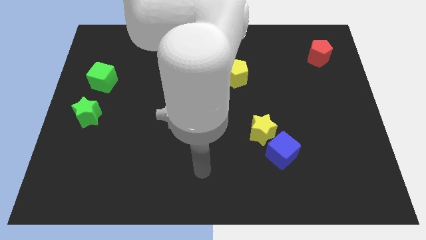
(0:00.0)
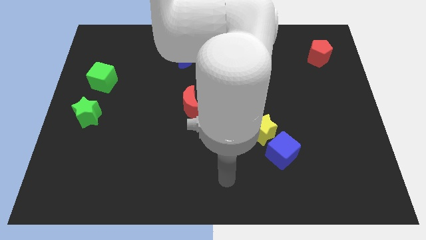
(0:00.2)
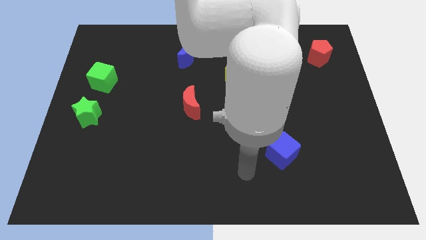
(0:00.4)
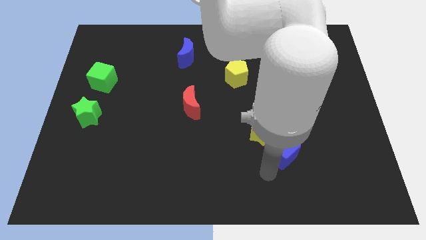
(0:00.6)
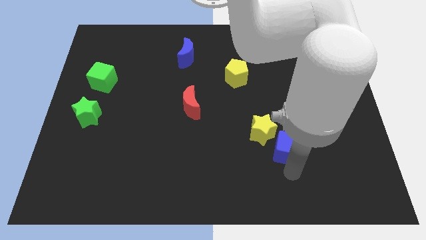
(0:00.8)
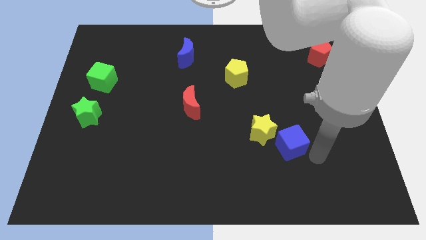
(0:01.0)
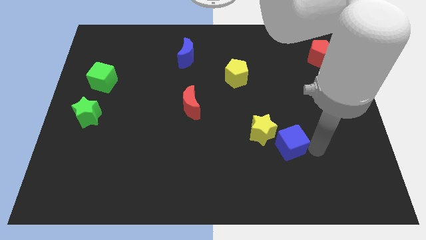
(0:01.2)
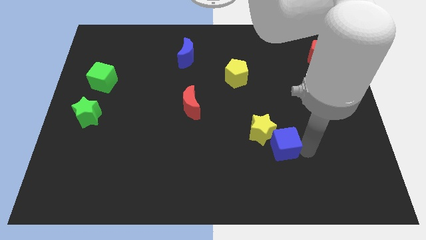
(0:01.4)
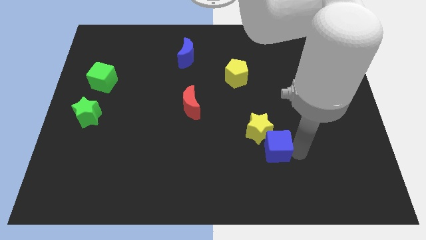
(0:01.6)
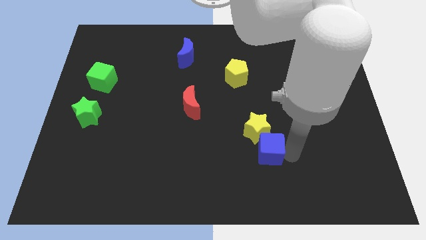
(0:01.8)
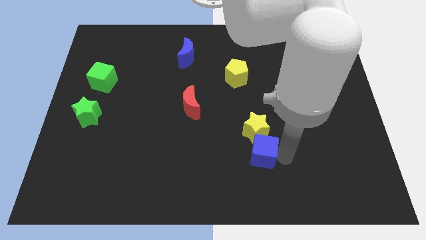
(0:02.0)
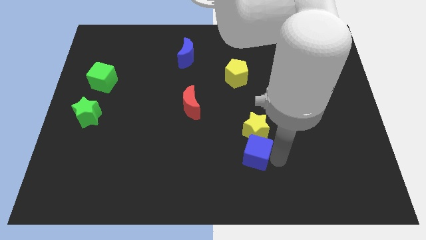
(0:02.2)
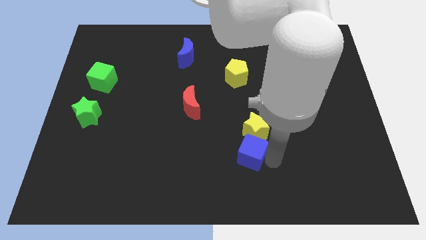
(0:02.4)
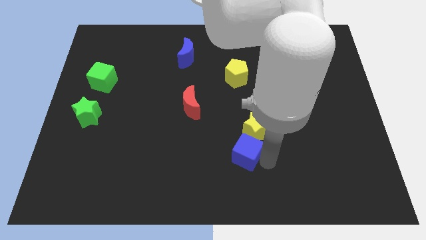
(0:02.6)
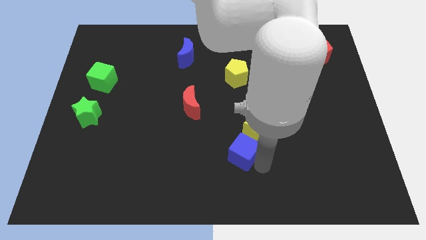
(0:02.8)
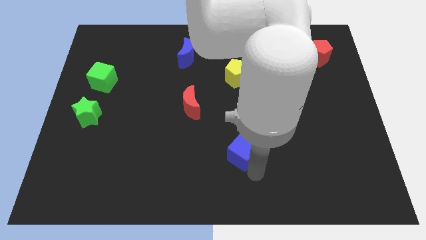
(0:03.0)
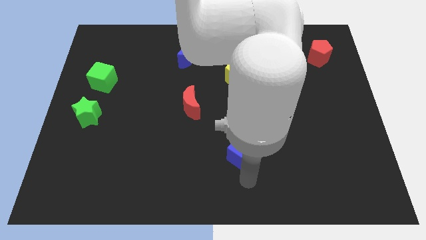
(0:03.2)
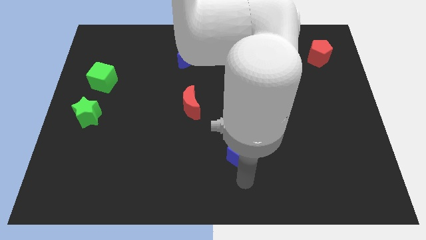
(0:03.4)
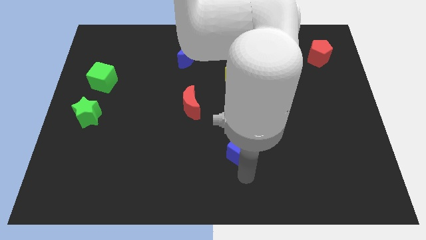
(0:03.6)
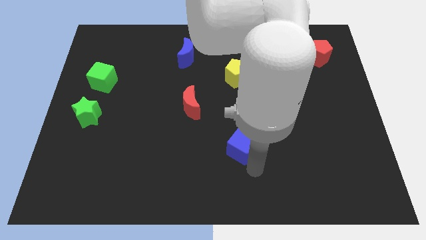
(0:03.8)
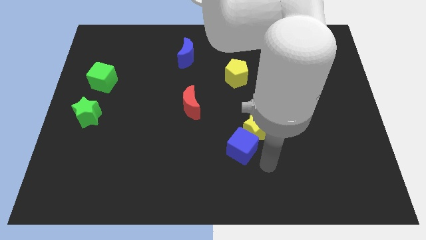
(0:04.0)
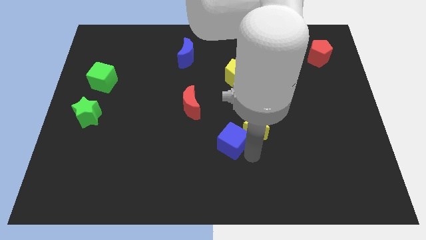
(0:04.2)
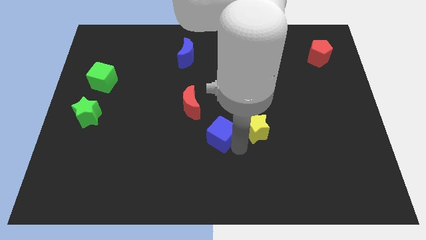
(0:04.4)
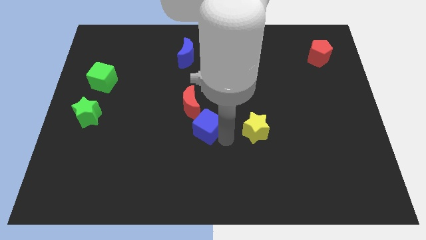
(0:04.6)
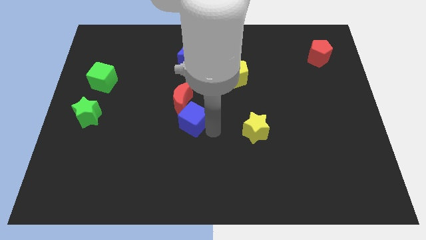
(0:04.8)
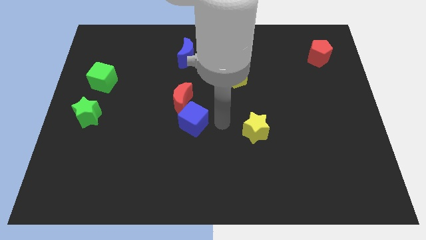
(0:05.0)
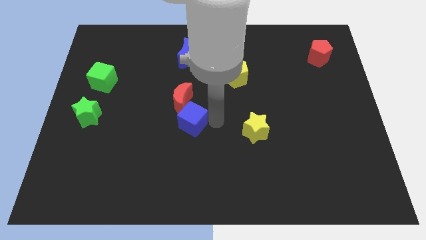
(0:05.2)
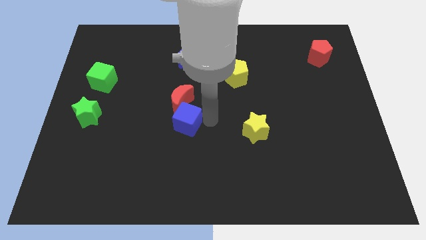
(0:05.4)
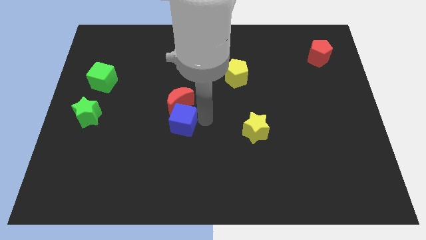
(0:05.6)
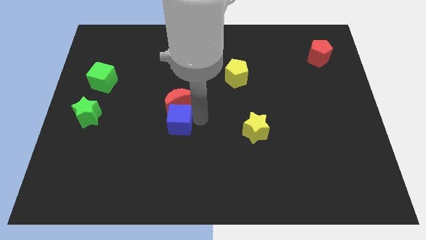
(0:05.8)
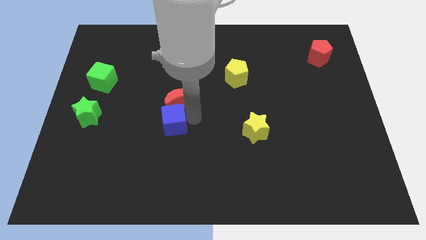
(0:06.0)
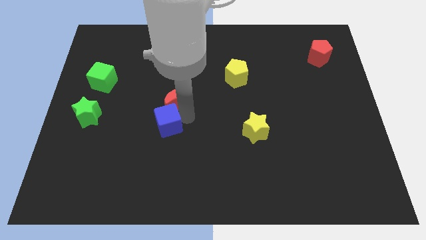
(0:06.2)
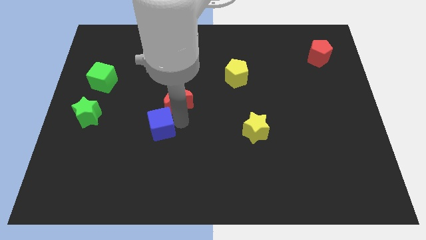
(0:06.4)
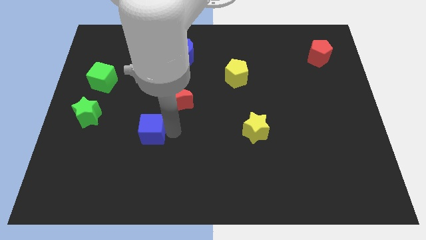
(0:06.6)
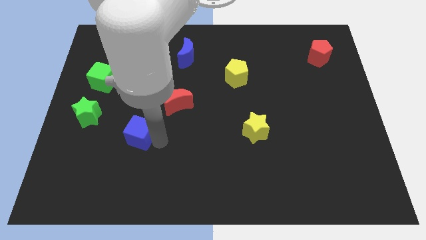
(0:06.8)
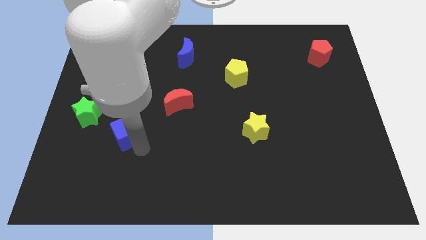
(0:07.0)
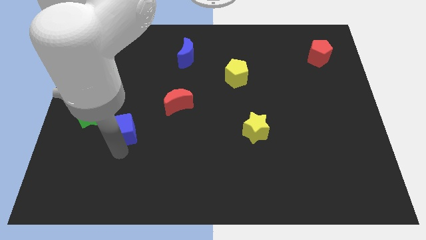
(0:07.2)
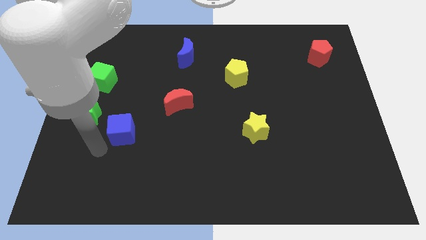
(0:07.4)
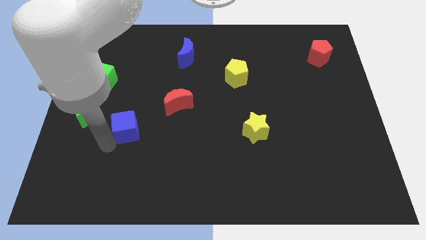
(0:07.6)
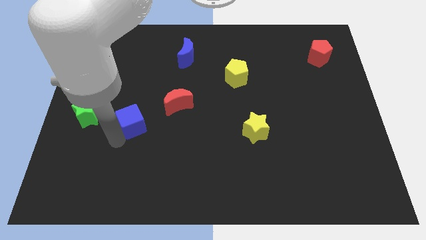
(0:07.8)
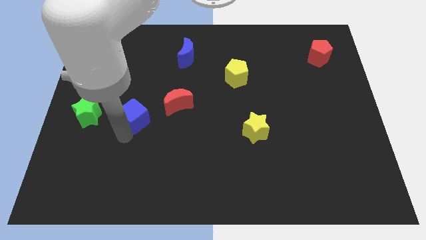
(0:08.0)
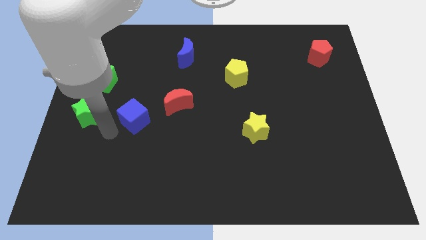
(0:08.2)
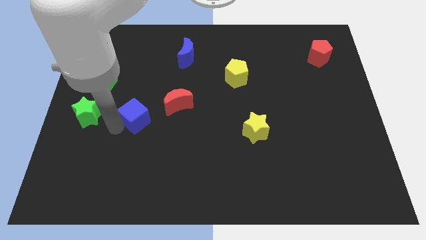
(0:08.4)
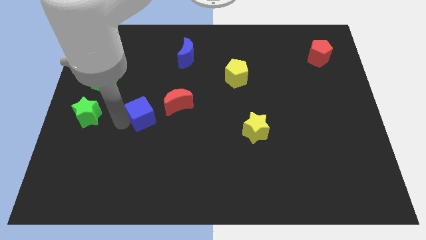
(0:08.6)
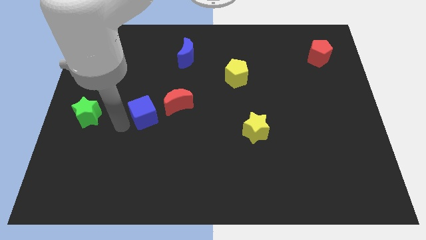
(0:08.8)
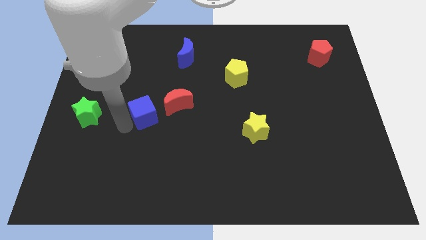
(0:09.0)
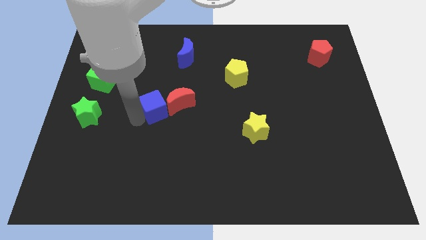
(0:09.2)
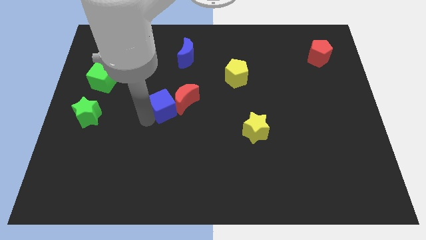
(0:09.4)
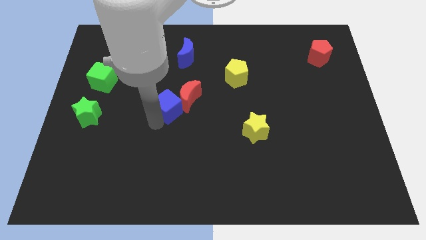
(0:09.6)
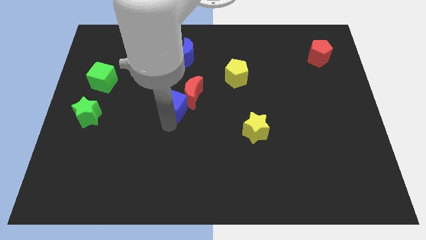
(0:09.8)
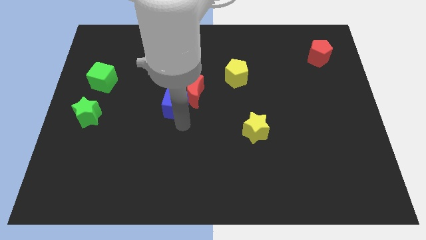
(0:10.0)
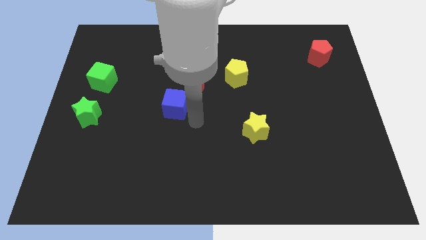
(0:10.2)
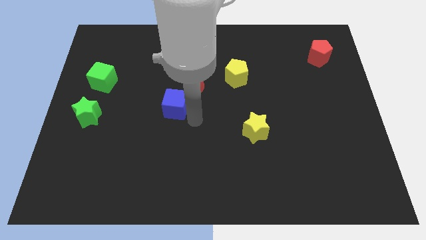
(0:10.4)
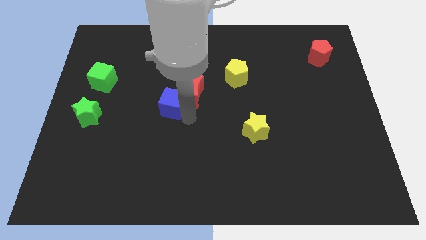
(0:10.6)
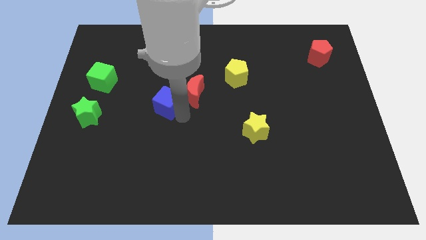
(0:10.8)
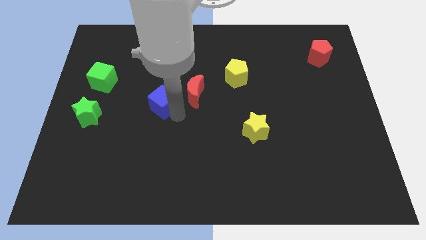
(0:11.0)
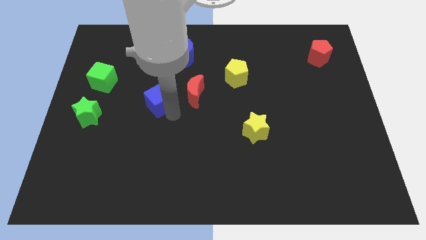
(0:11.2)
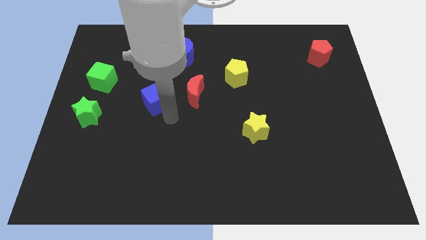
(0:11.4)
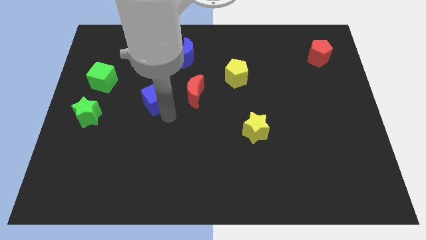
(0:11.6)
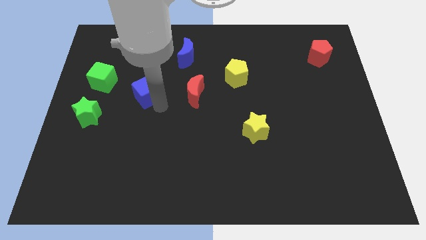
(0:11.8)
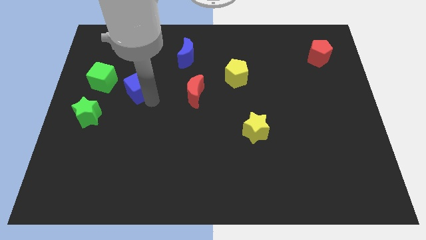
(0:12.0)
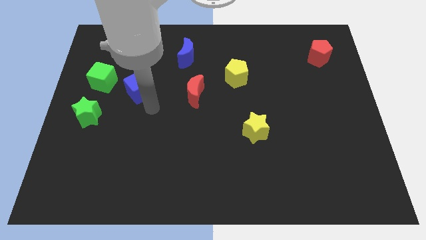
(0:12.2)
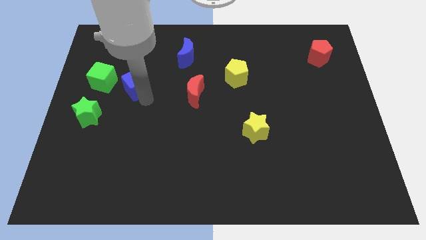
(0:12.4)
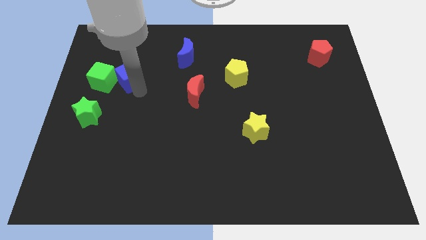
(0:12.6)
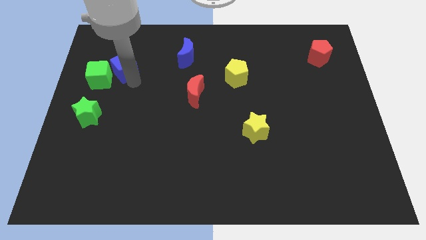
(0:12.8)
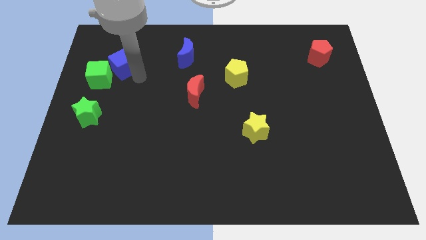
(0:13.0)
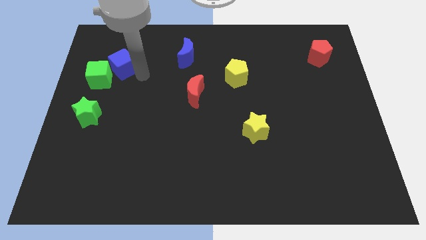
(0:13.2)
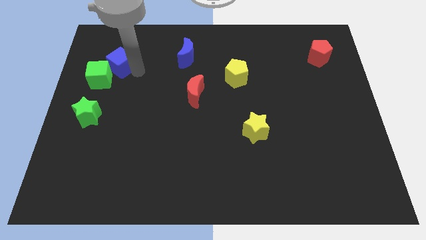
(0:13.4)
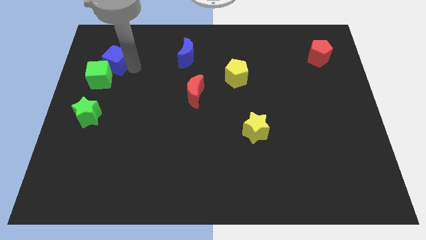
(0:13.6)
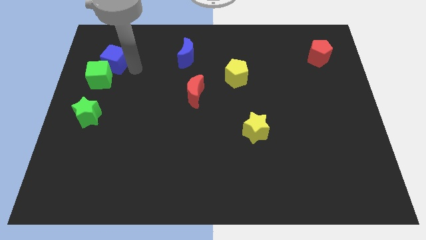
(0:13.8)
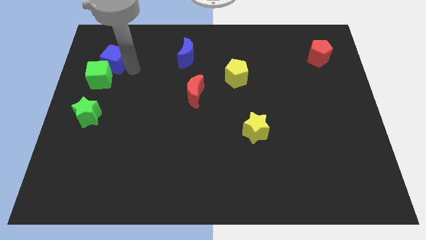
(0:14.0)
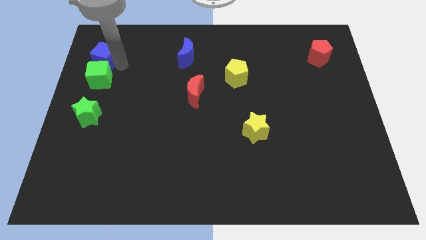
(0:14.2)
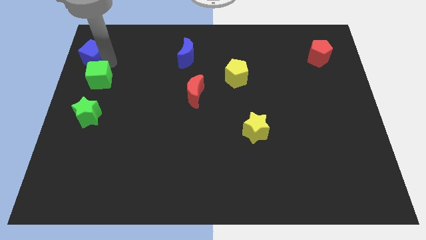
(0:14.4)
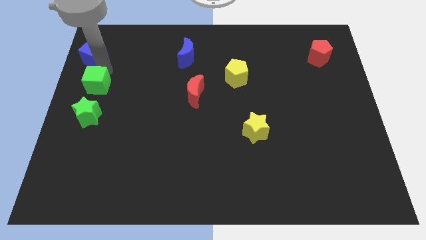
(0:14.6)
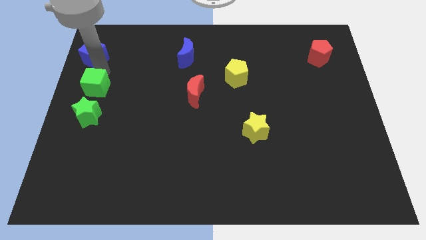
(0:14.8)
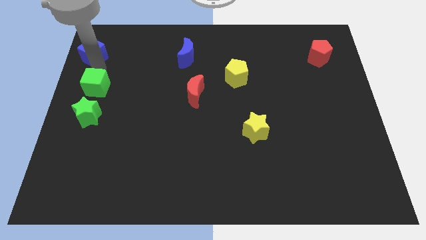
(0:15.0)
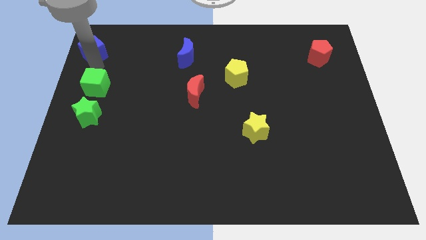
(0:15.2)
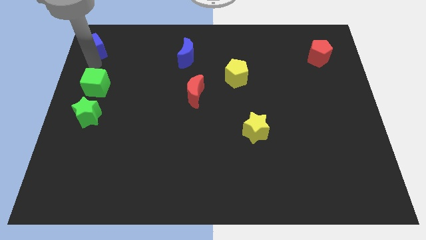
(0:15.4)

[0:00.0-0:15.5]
push the blue cube to the top left of the board
